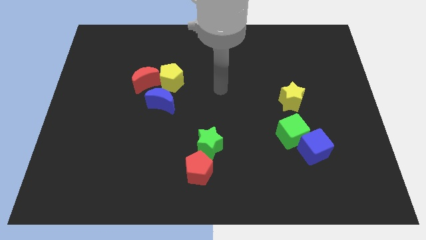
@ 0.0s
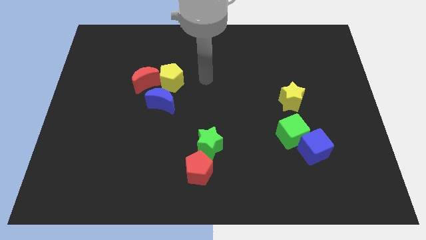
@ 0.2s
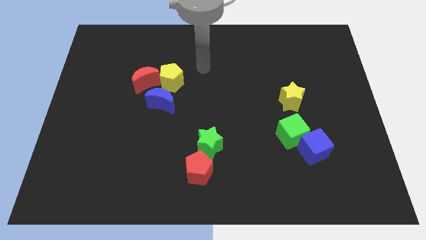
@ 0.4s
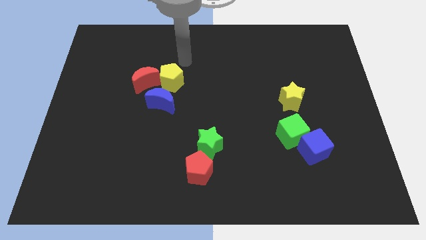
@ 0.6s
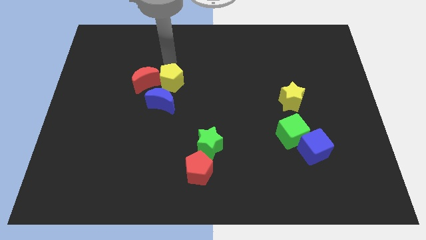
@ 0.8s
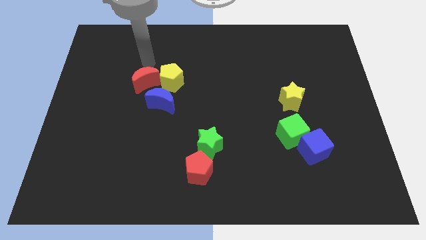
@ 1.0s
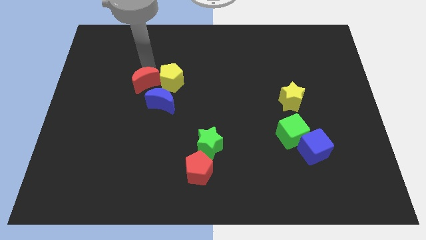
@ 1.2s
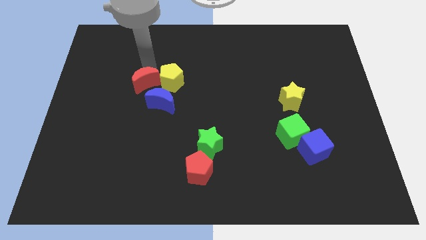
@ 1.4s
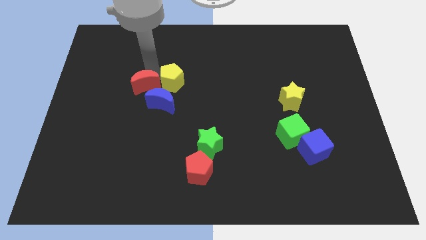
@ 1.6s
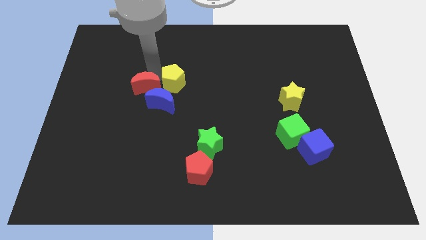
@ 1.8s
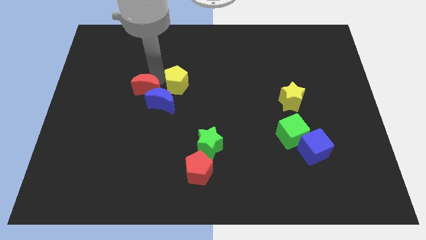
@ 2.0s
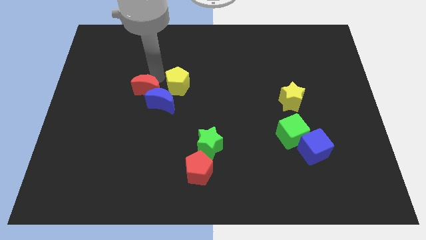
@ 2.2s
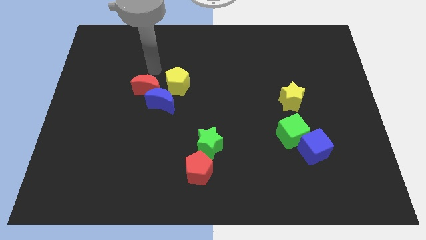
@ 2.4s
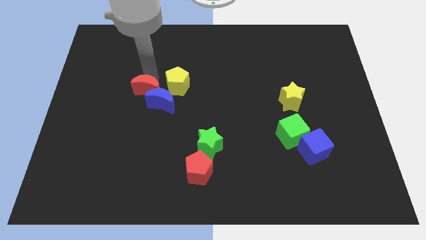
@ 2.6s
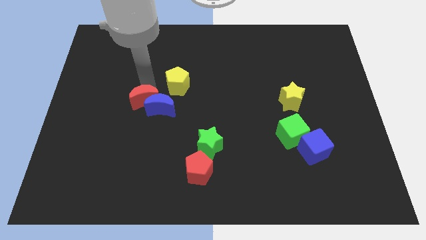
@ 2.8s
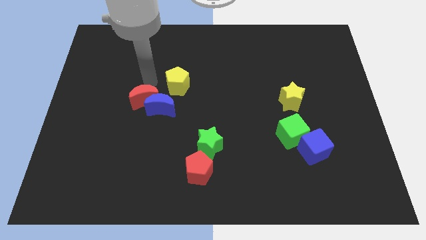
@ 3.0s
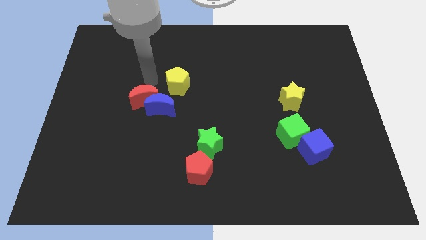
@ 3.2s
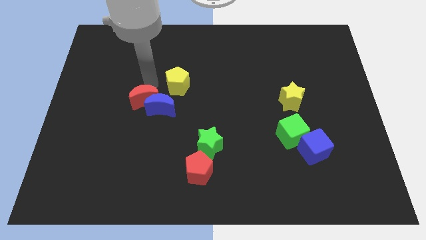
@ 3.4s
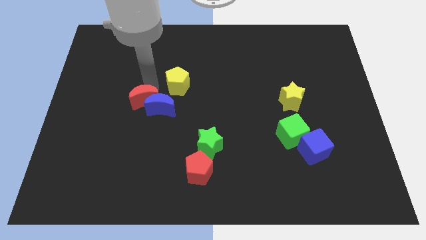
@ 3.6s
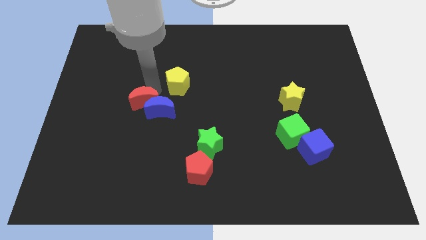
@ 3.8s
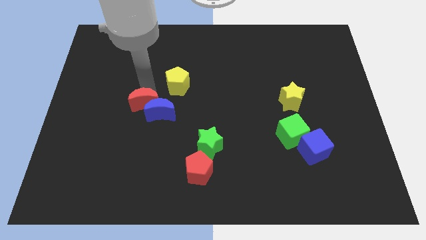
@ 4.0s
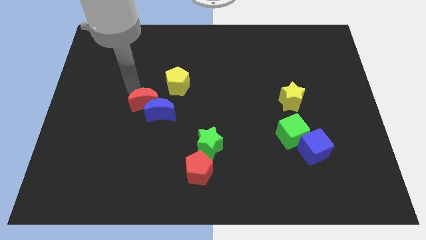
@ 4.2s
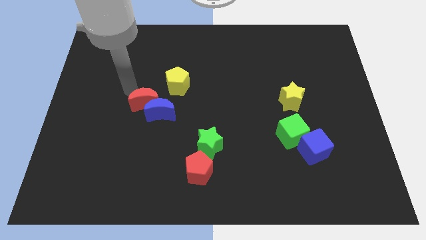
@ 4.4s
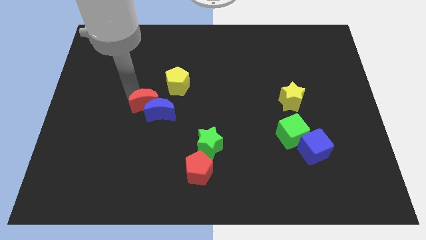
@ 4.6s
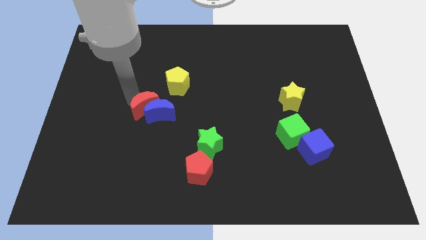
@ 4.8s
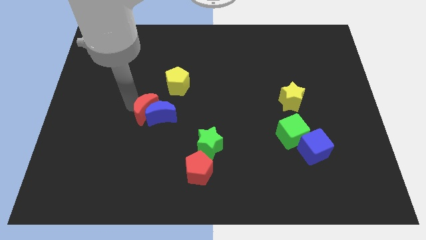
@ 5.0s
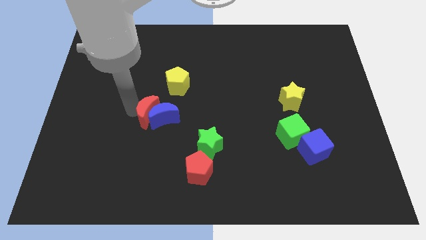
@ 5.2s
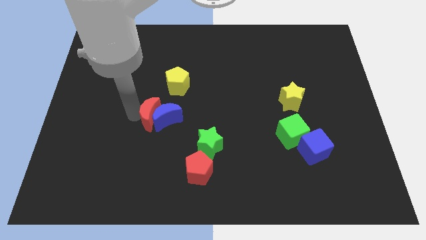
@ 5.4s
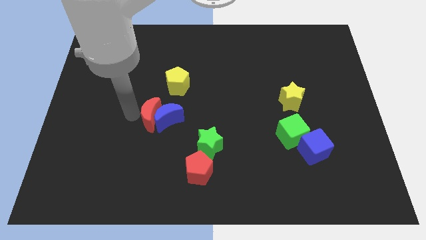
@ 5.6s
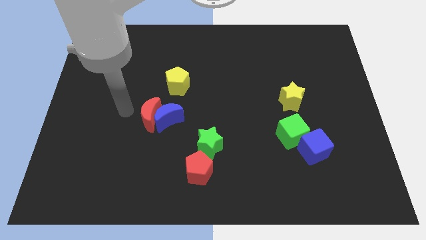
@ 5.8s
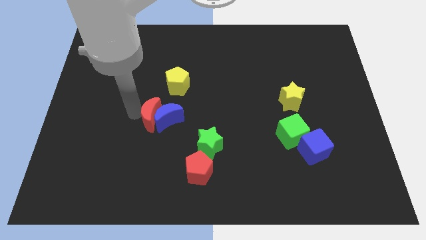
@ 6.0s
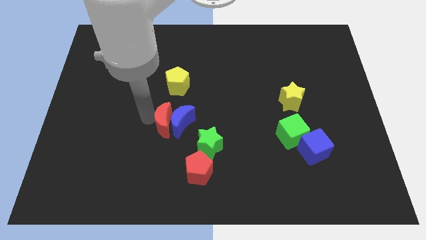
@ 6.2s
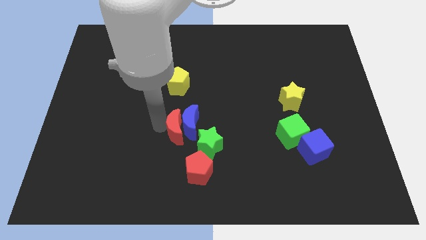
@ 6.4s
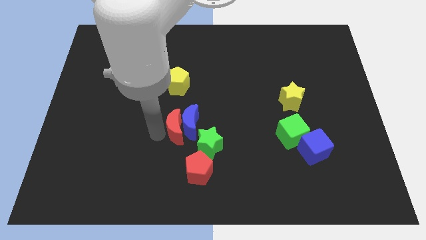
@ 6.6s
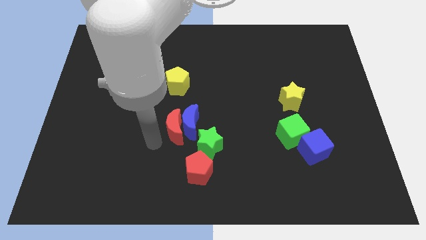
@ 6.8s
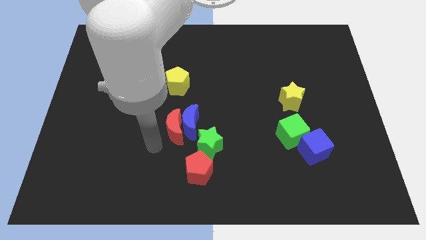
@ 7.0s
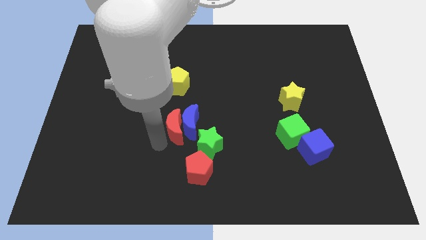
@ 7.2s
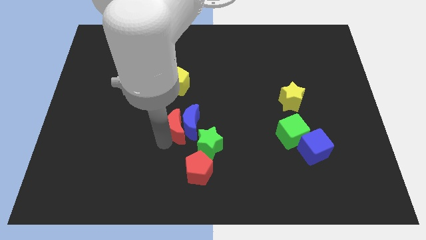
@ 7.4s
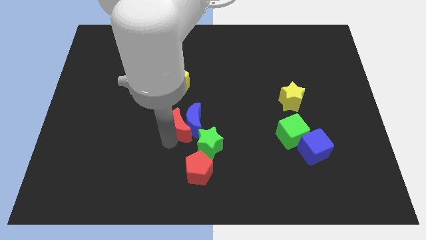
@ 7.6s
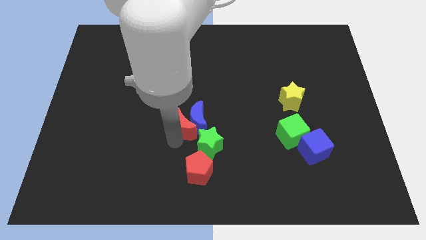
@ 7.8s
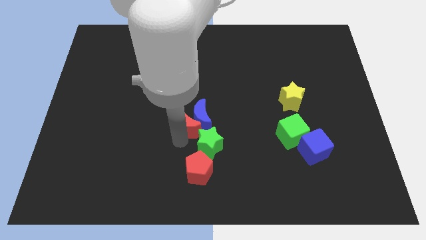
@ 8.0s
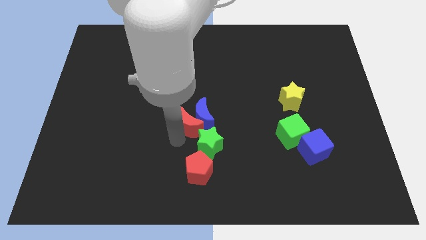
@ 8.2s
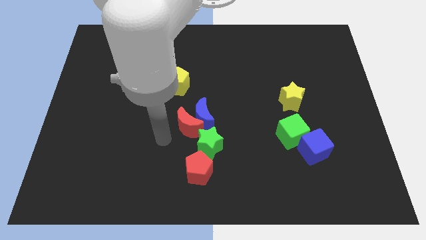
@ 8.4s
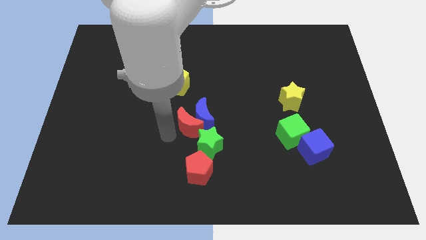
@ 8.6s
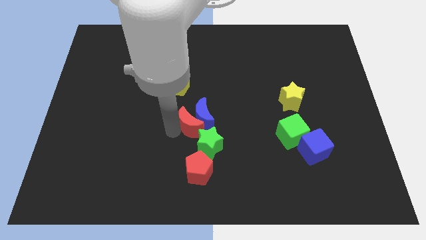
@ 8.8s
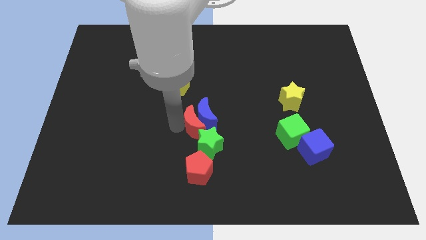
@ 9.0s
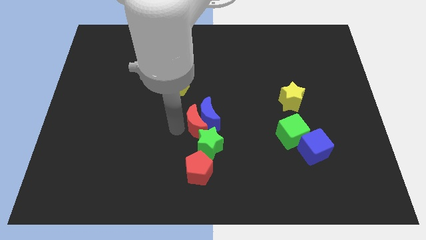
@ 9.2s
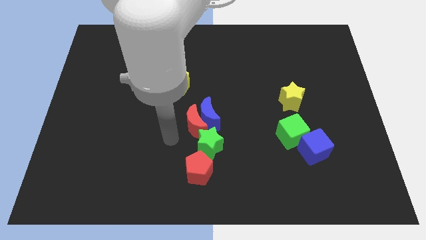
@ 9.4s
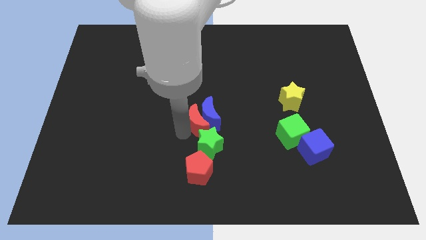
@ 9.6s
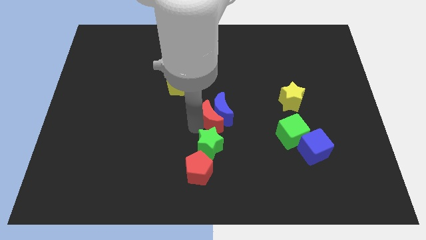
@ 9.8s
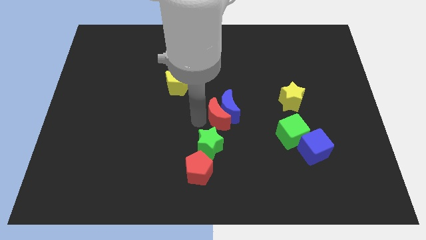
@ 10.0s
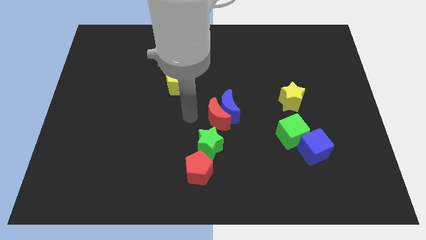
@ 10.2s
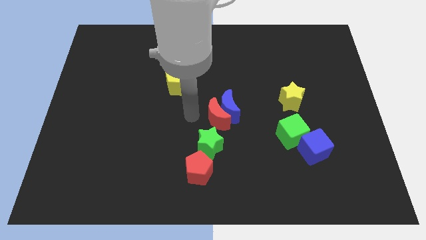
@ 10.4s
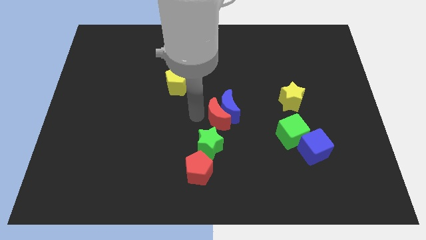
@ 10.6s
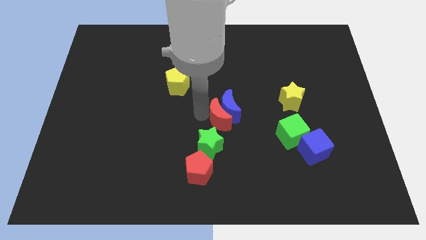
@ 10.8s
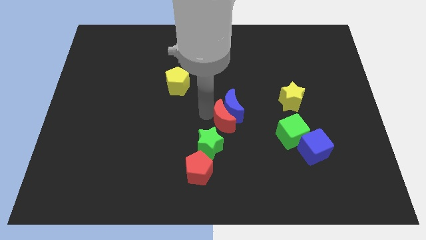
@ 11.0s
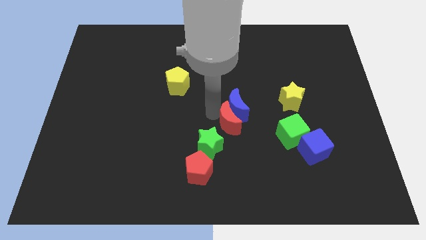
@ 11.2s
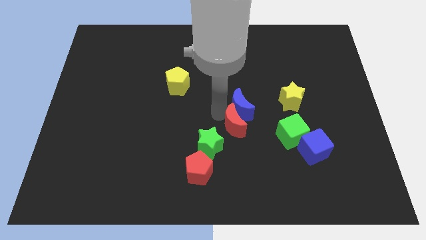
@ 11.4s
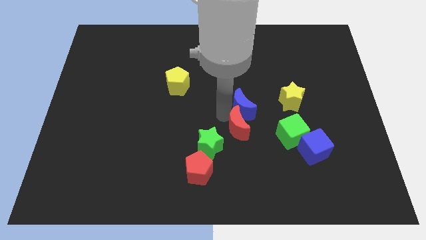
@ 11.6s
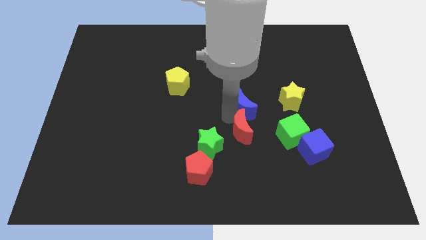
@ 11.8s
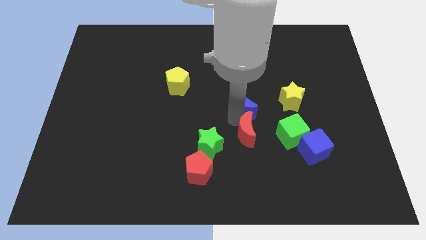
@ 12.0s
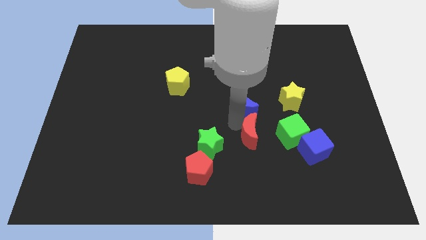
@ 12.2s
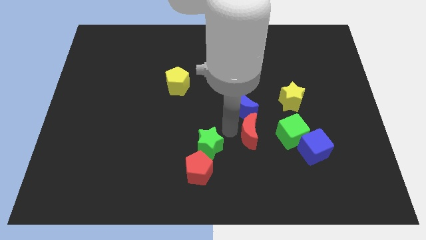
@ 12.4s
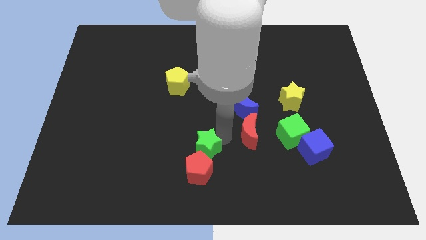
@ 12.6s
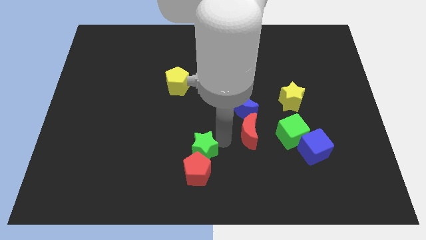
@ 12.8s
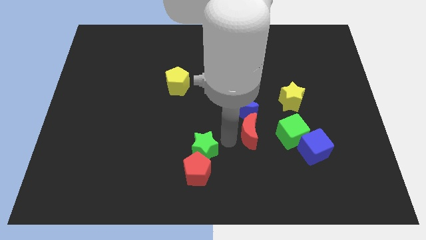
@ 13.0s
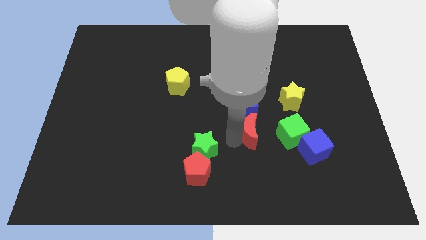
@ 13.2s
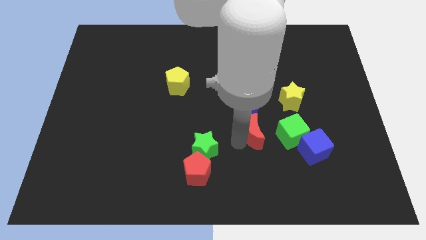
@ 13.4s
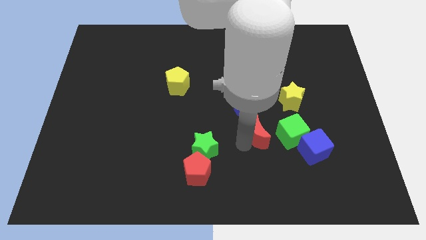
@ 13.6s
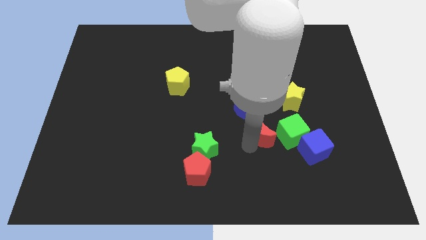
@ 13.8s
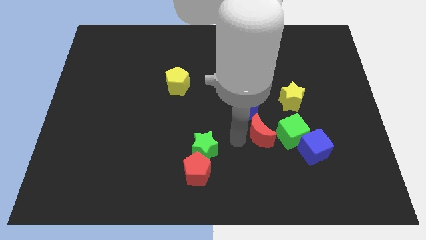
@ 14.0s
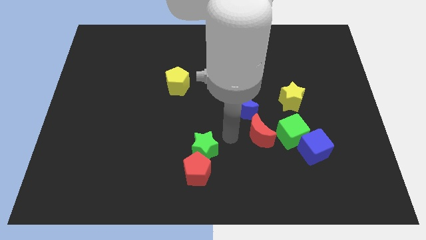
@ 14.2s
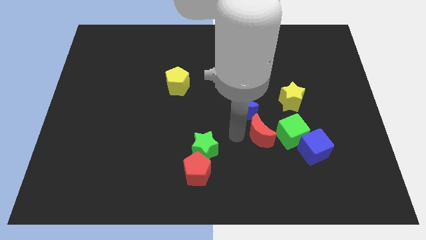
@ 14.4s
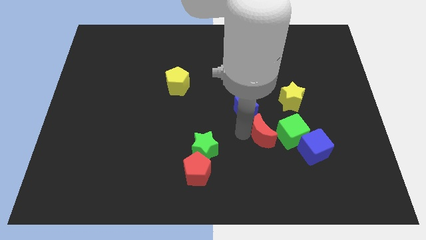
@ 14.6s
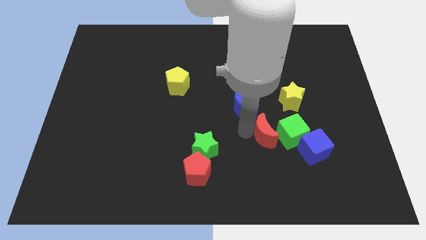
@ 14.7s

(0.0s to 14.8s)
move the red moon towards the green cube
